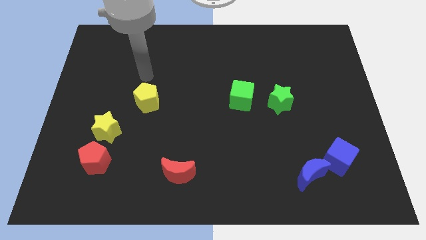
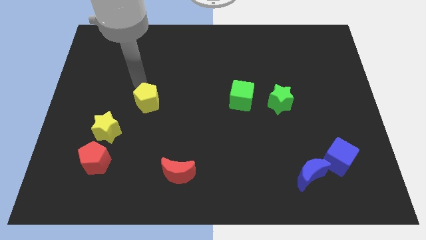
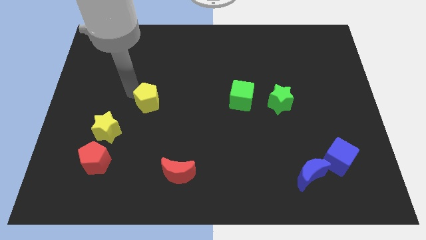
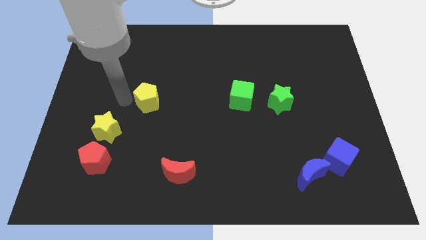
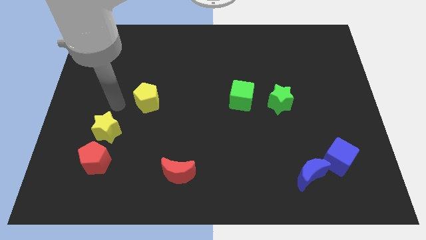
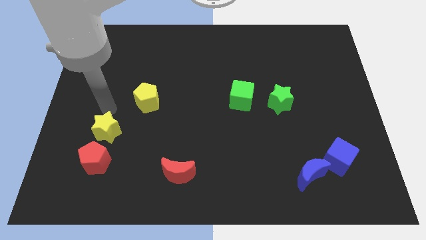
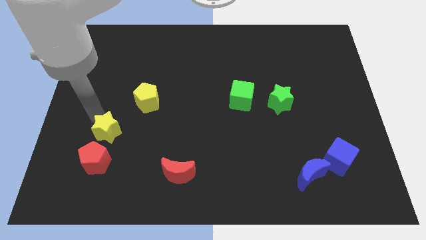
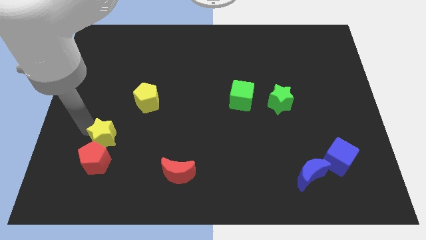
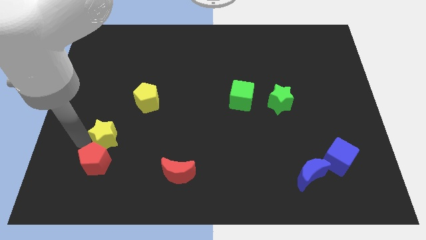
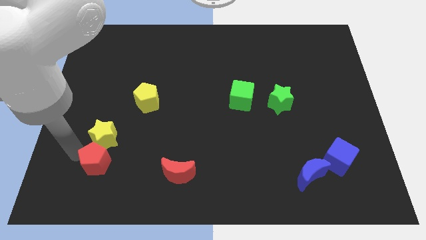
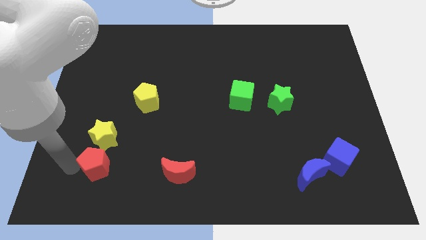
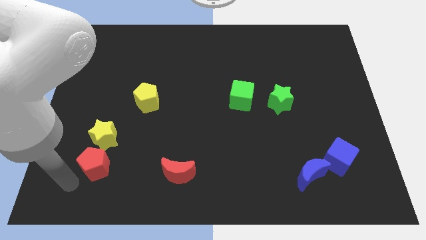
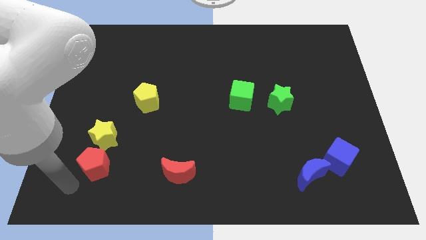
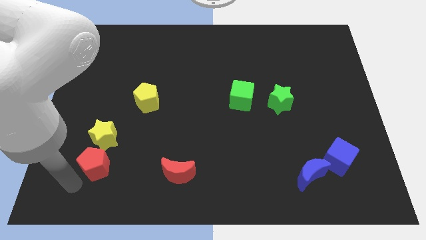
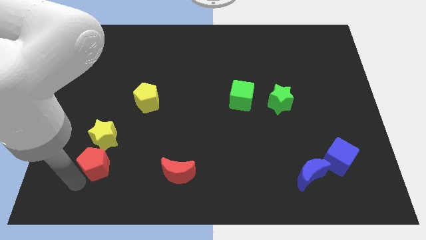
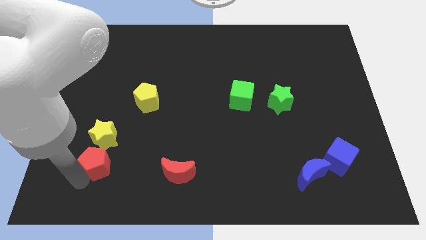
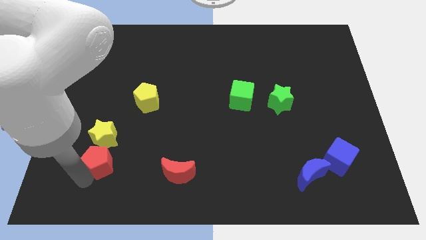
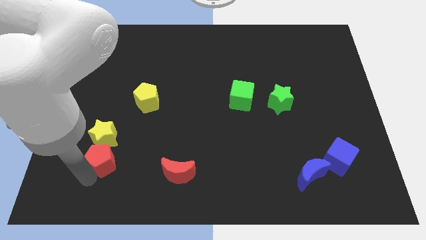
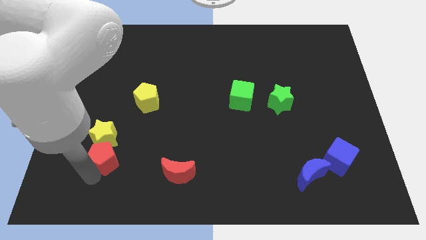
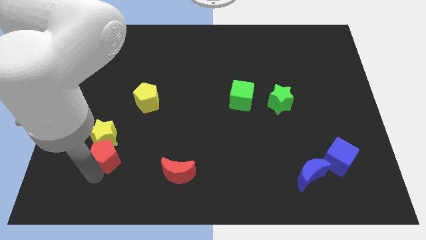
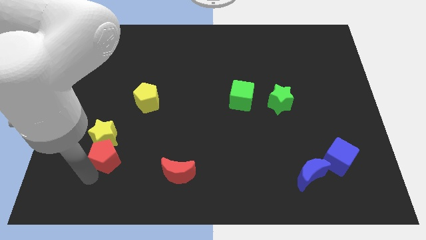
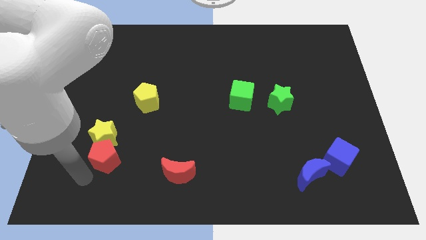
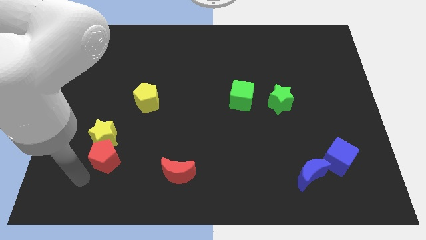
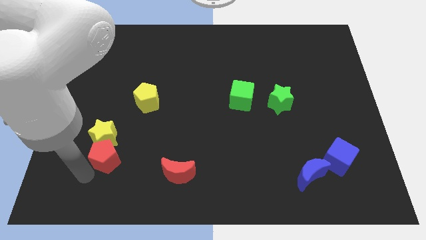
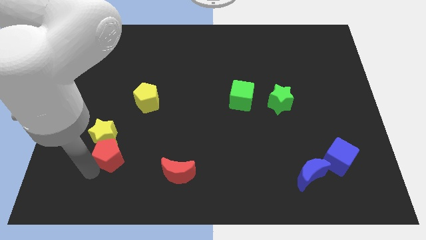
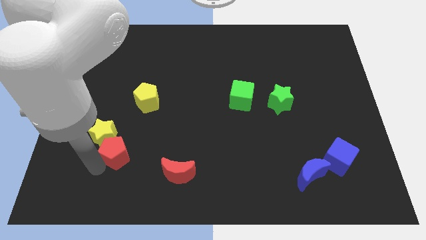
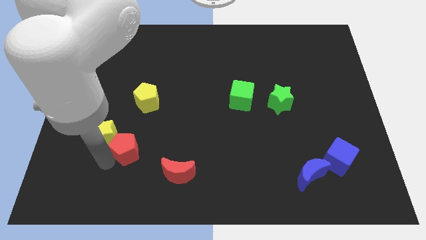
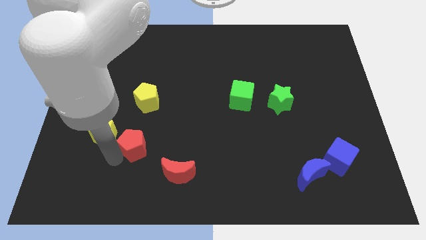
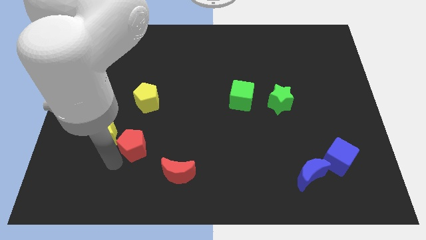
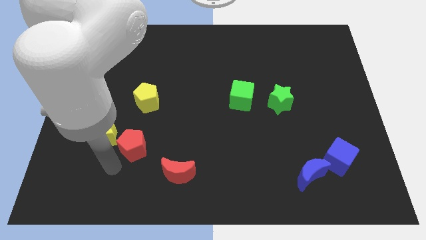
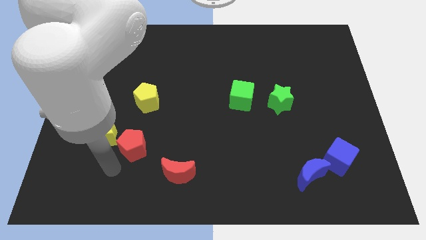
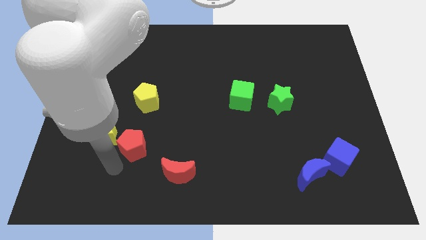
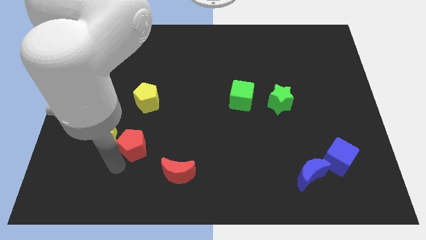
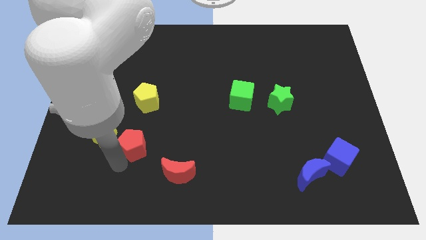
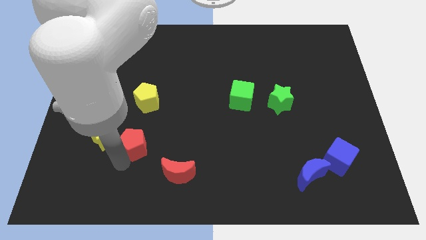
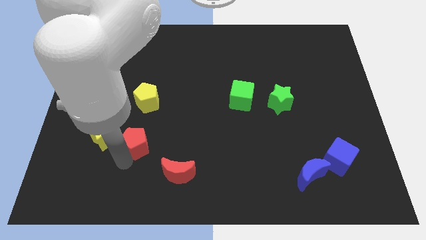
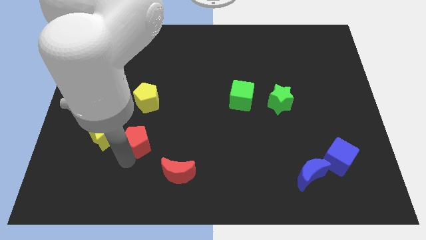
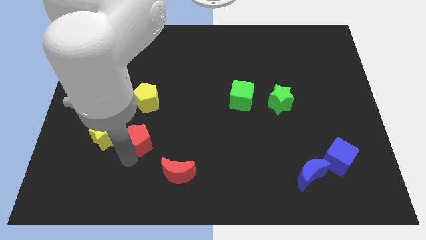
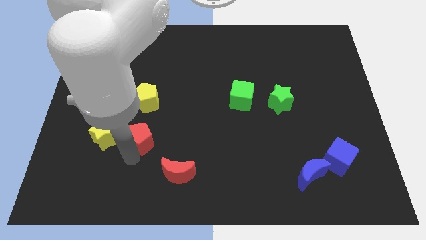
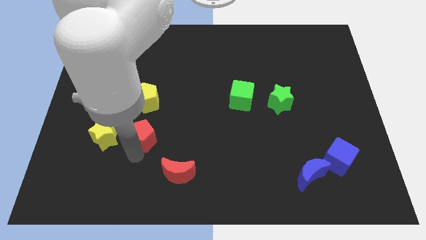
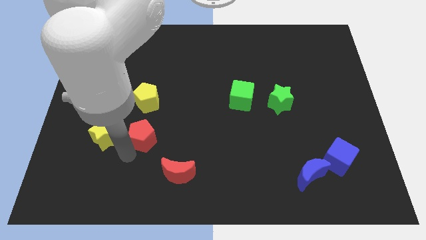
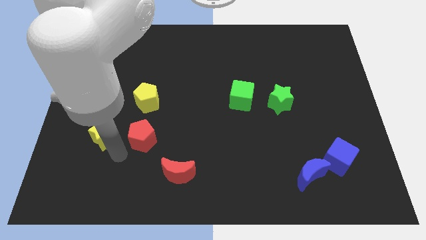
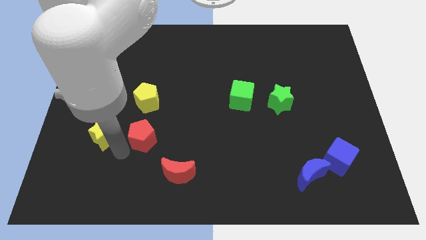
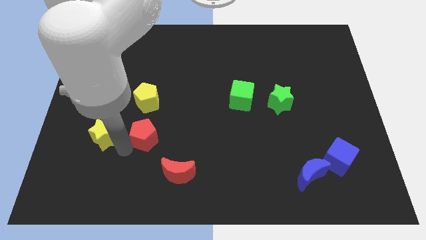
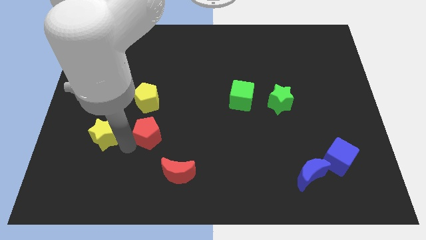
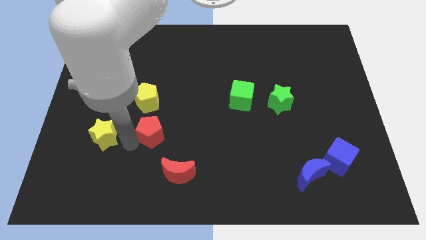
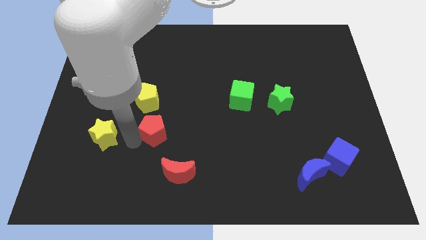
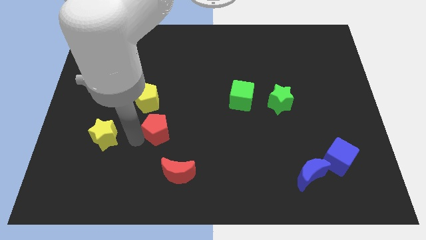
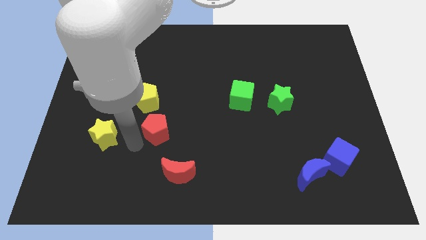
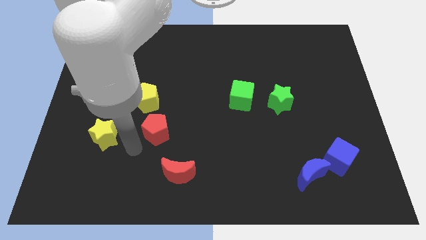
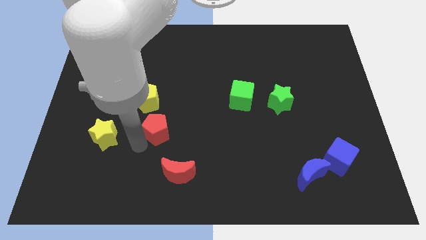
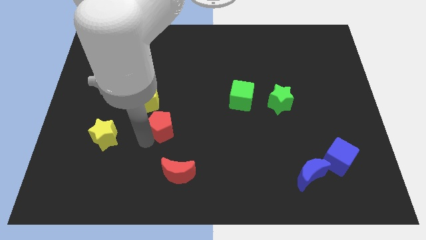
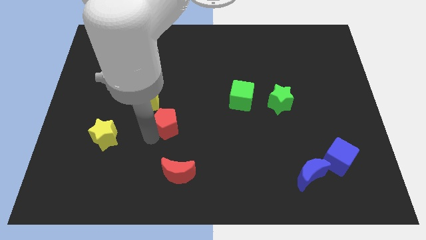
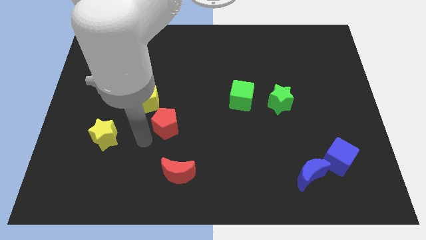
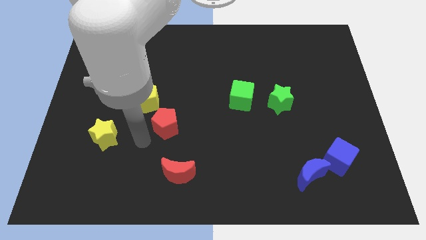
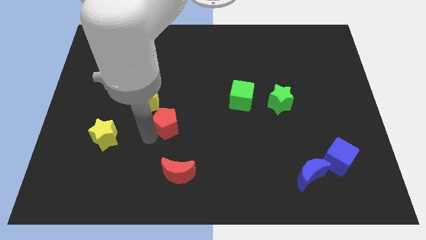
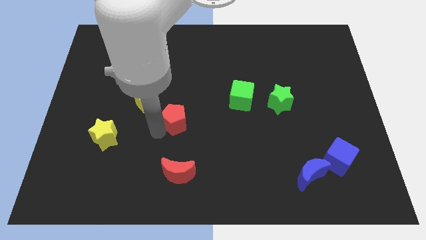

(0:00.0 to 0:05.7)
put the red pentagon to the middle of the board

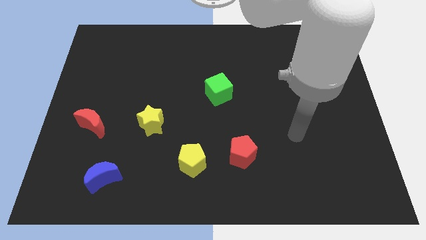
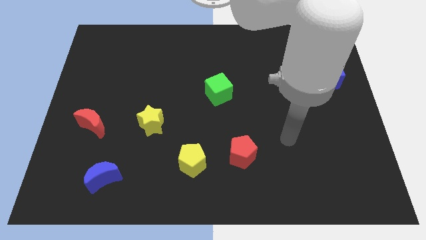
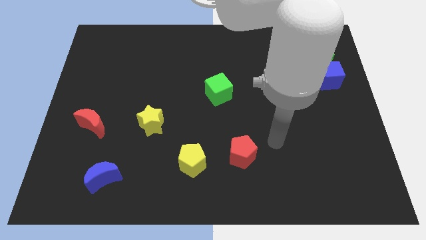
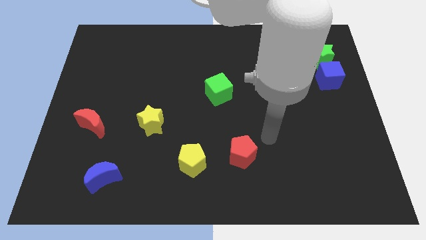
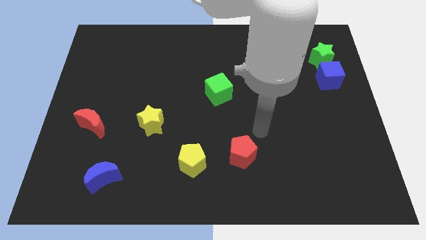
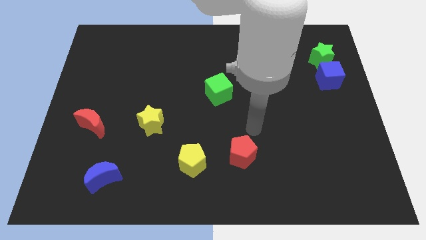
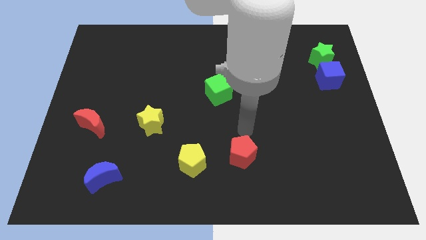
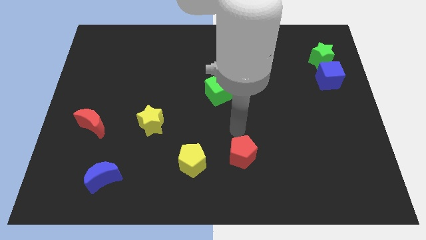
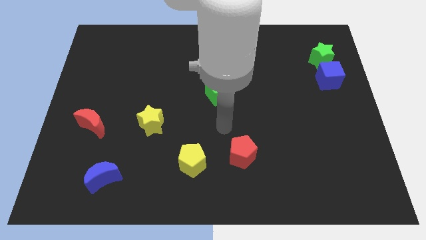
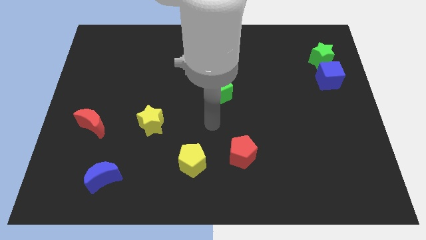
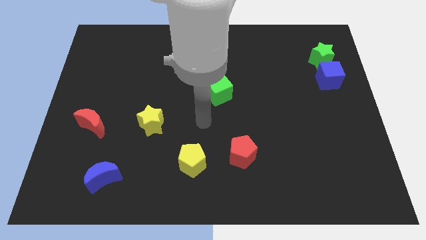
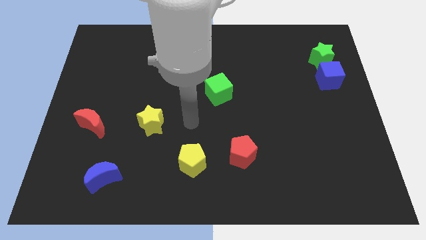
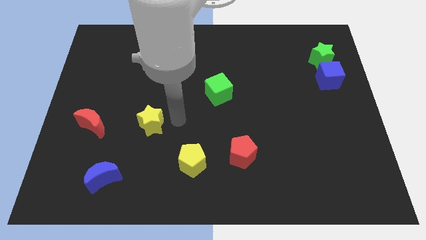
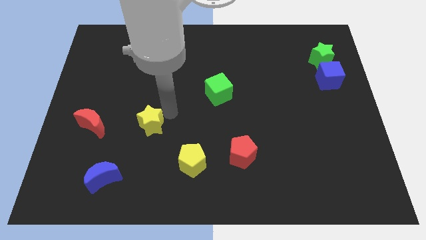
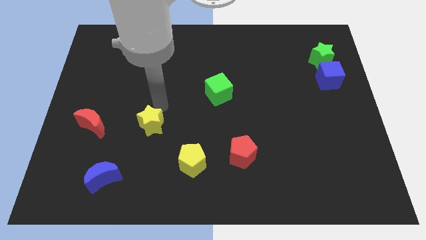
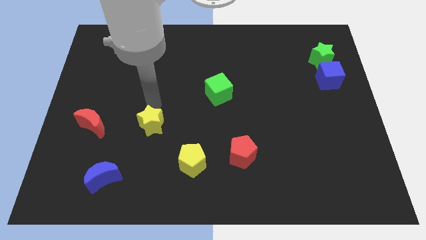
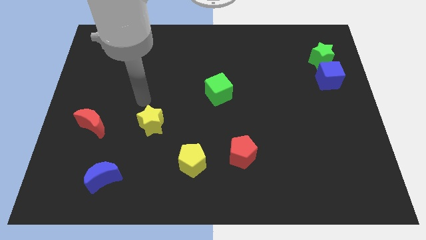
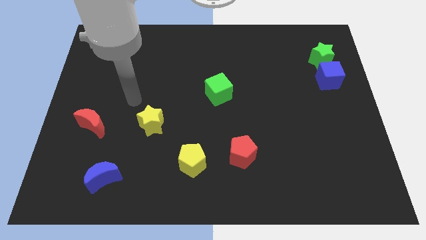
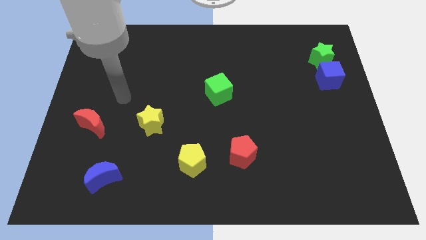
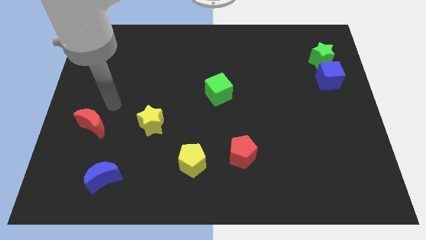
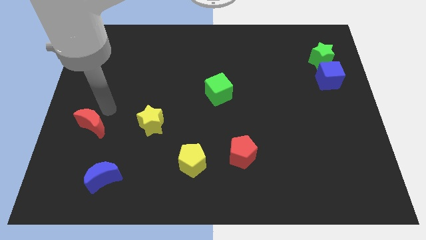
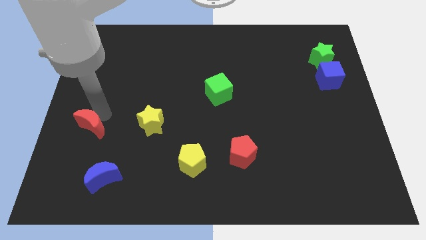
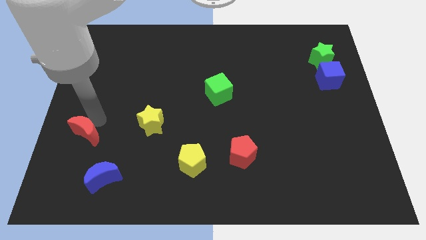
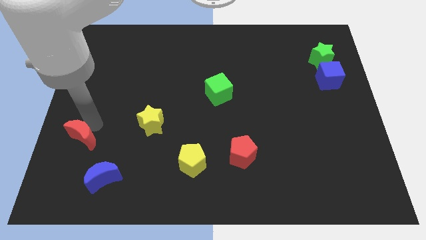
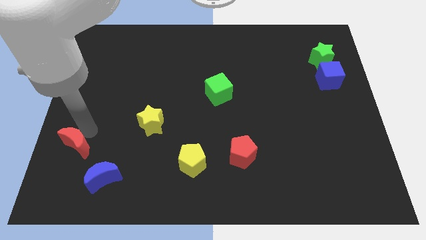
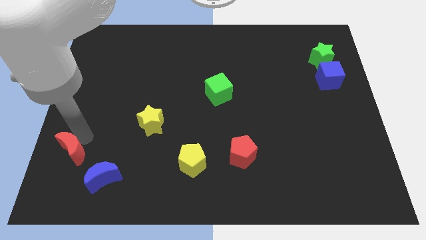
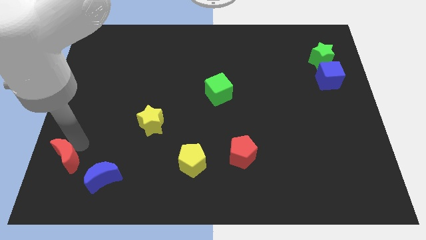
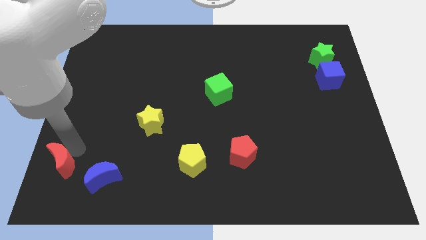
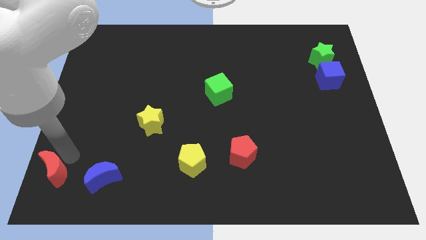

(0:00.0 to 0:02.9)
put the red moon to the bottom left
